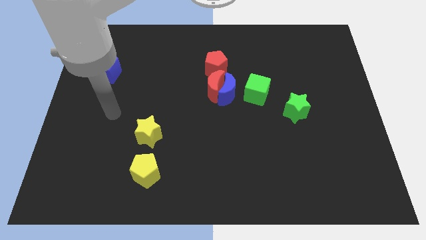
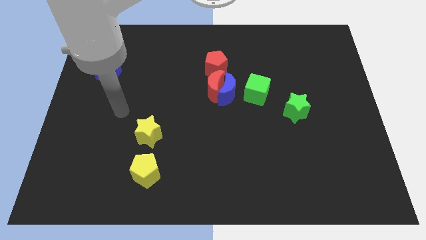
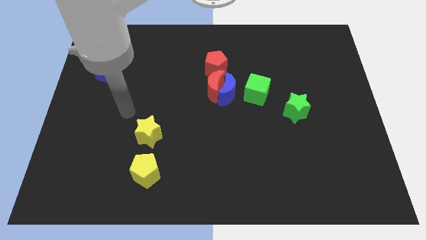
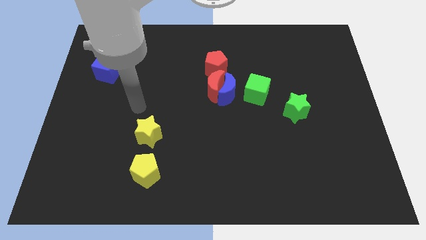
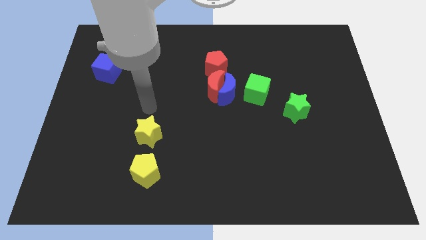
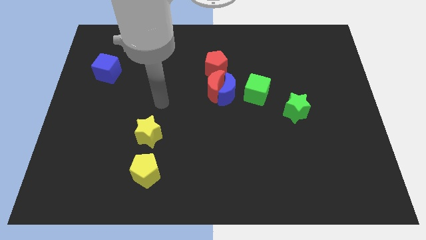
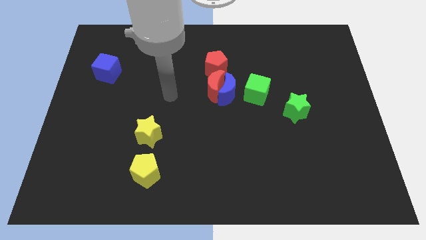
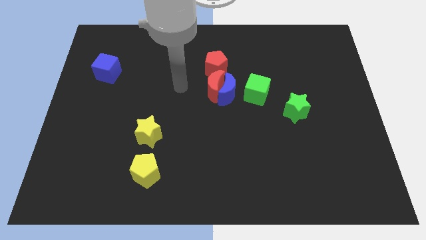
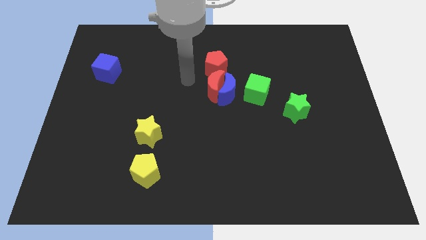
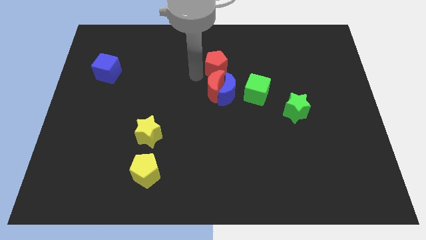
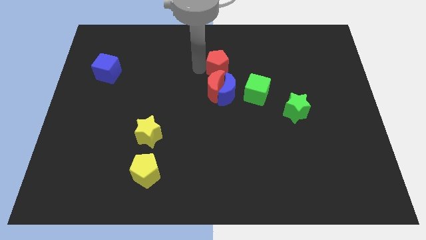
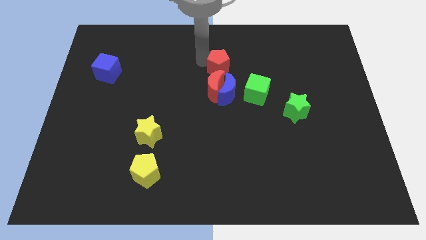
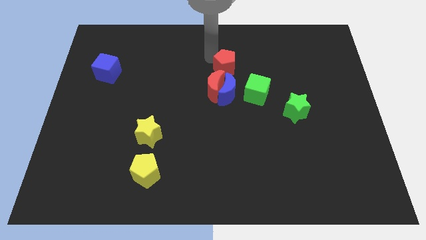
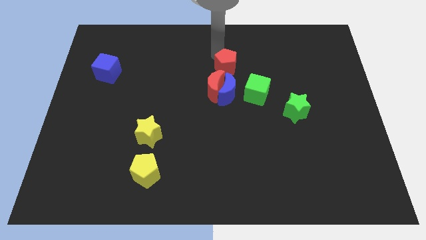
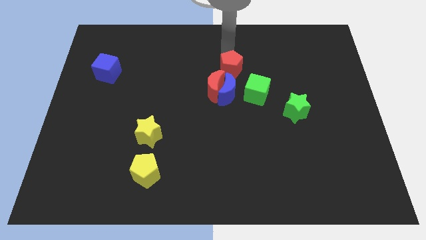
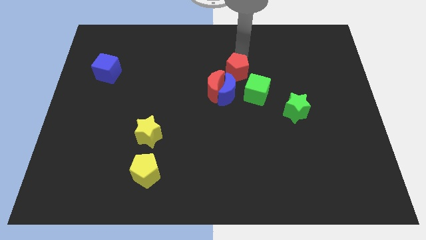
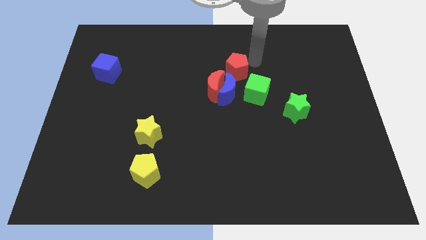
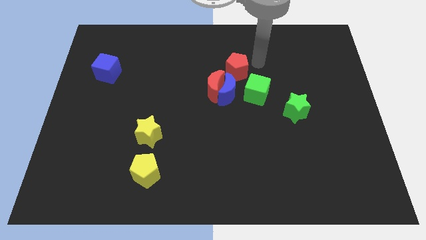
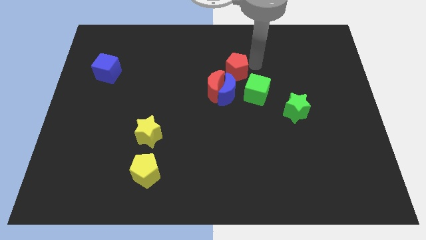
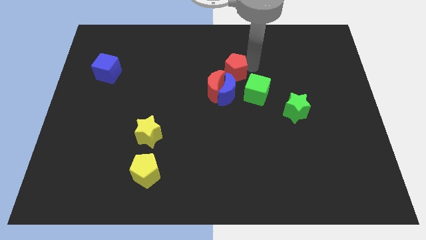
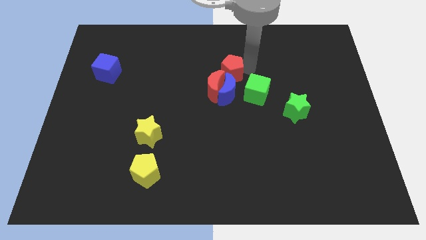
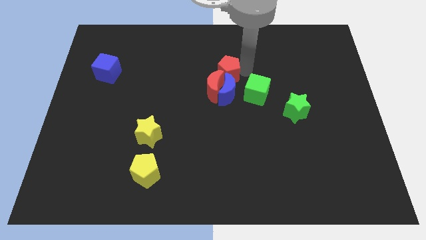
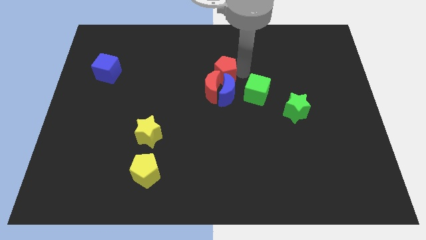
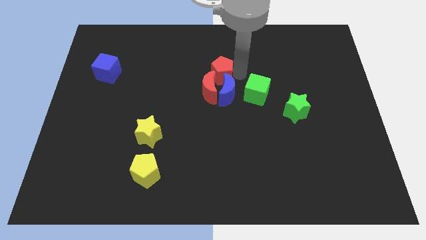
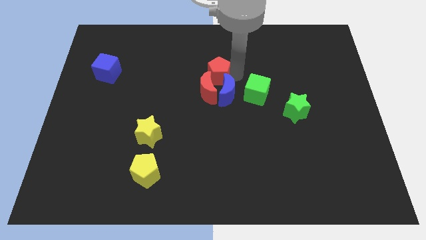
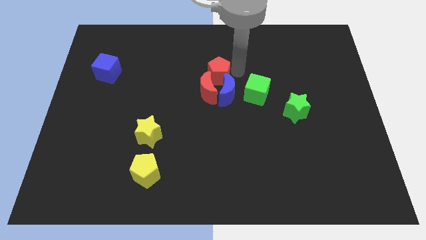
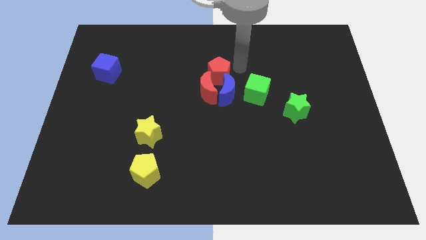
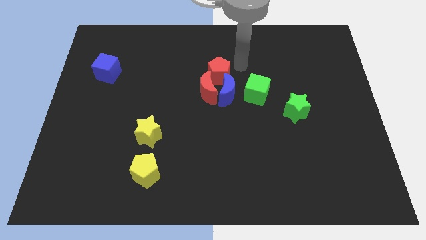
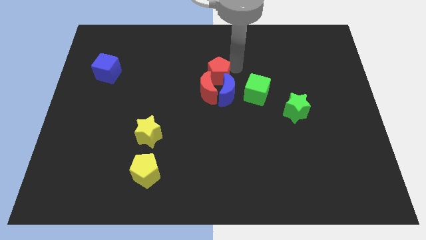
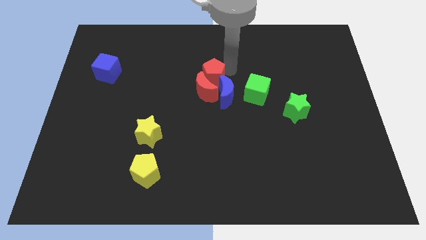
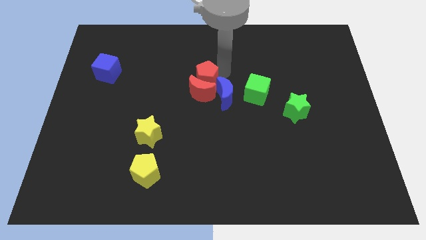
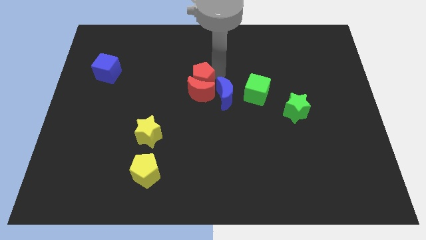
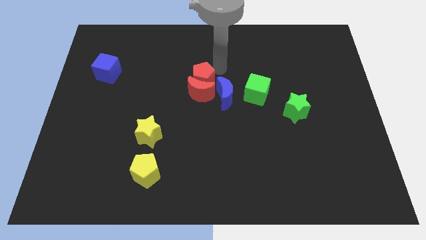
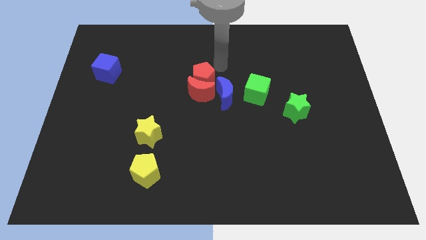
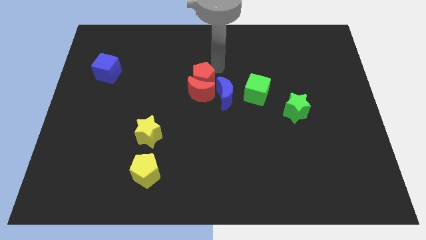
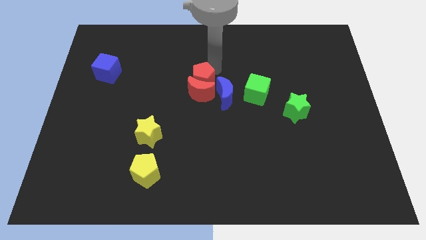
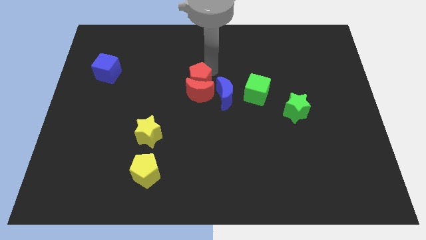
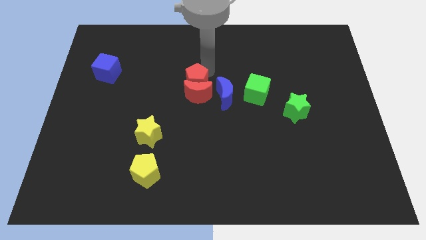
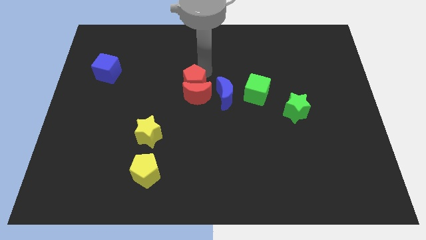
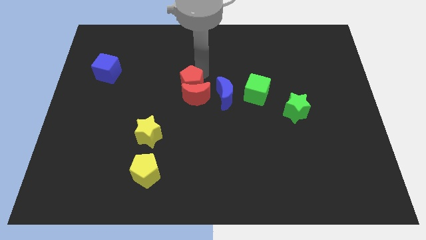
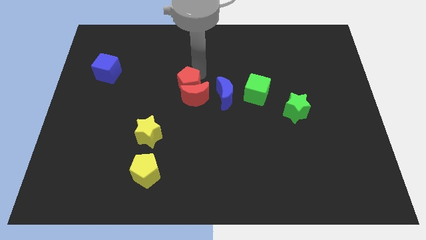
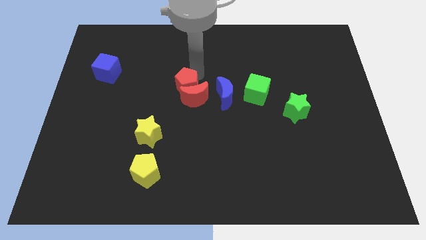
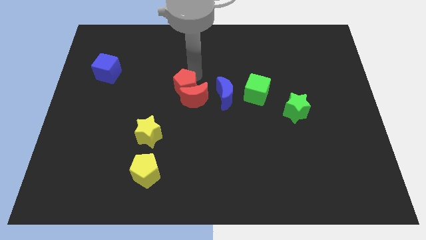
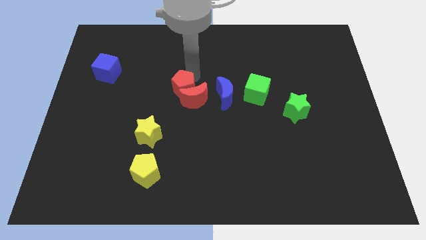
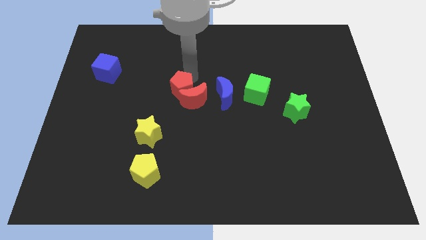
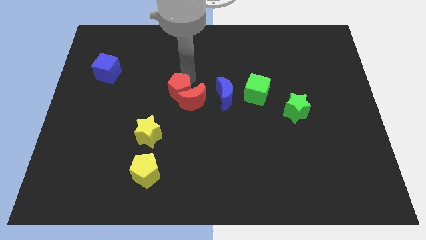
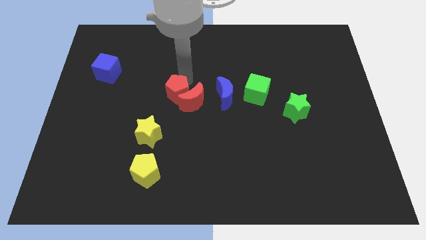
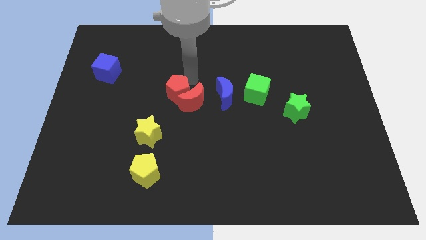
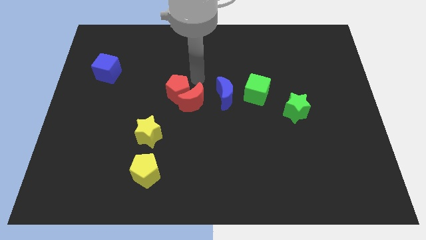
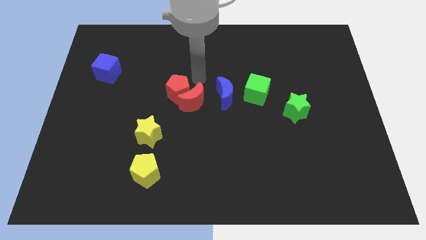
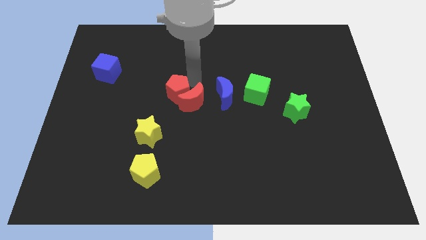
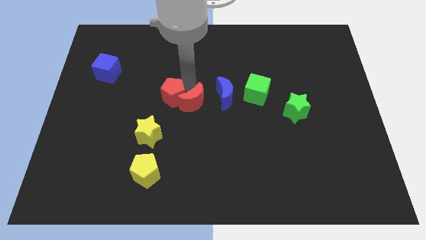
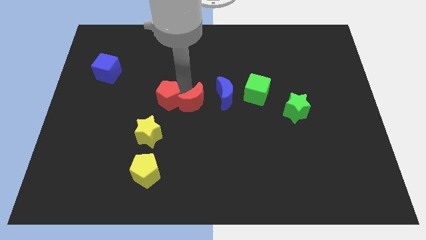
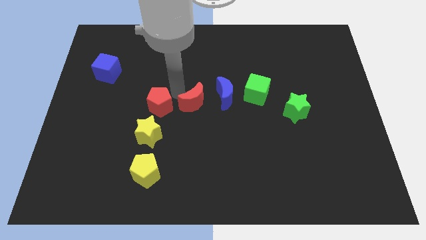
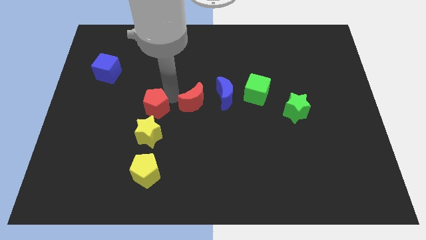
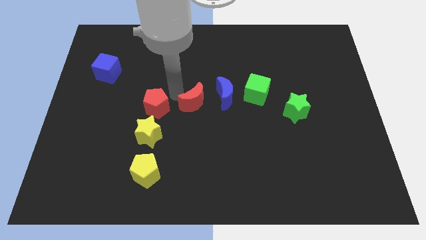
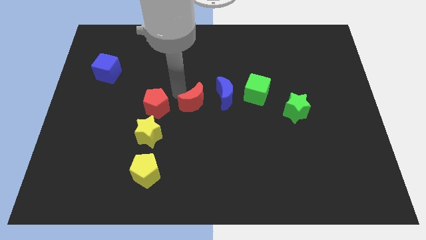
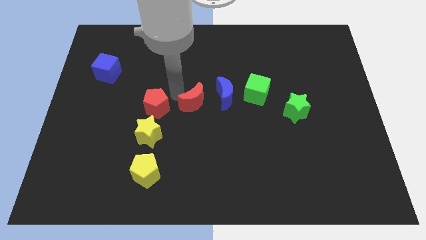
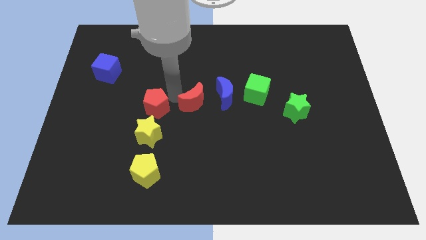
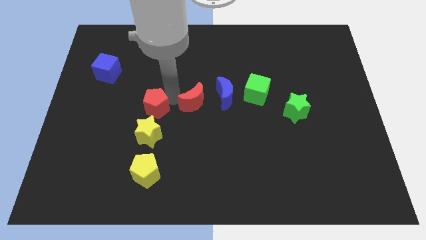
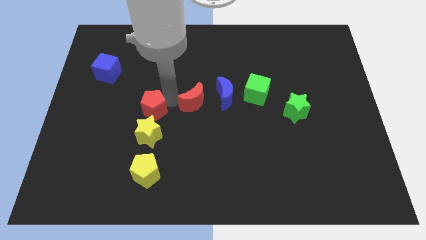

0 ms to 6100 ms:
slide the red pentagon diagonally downwards and left

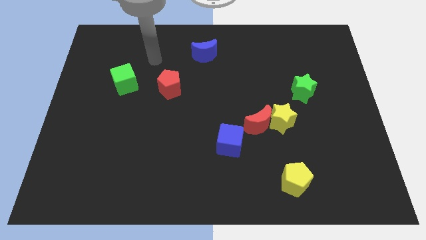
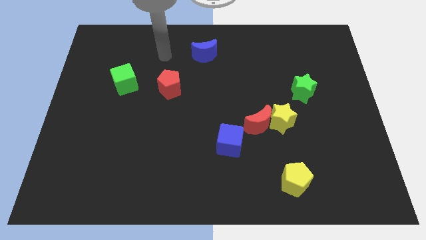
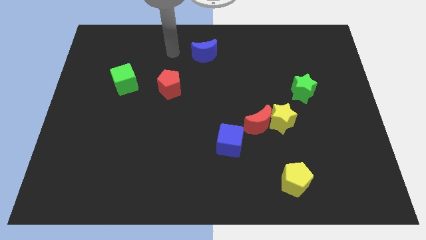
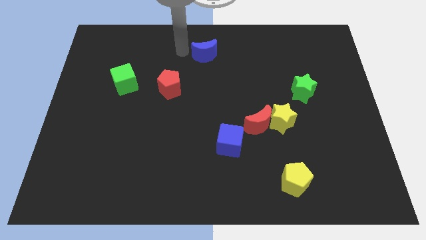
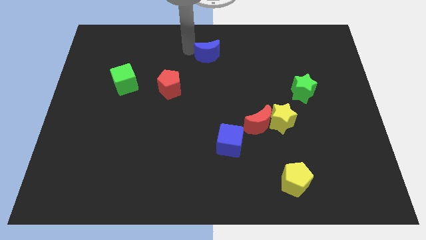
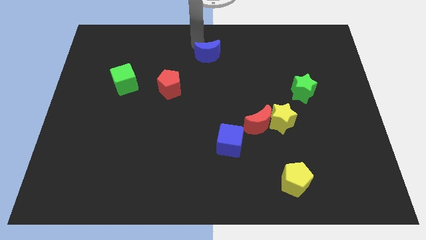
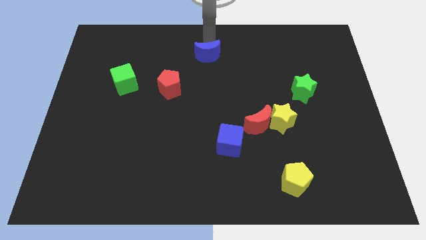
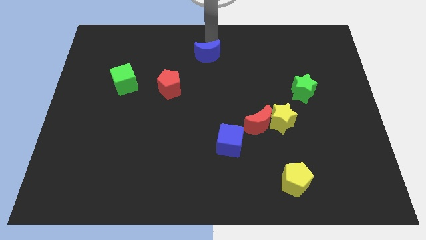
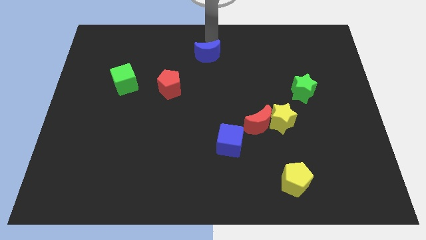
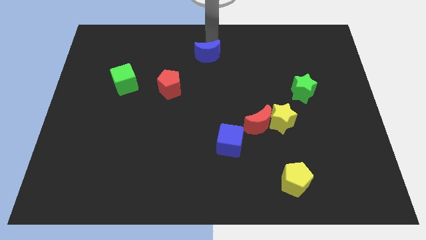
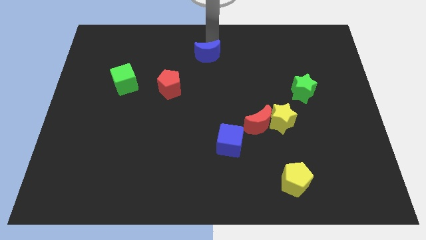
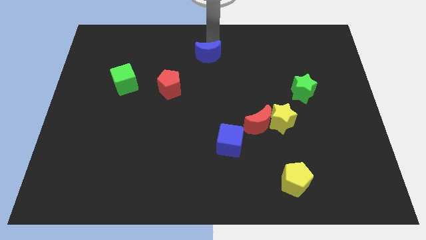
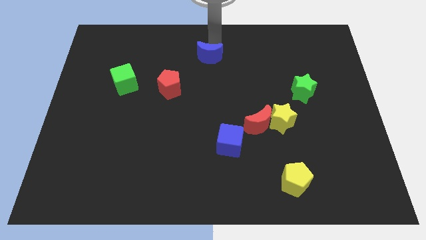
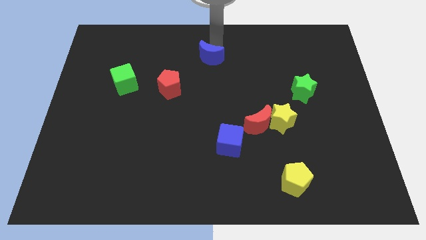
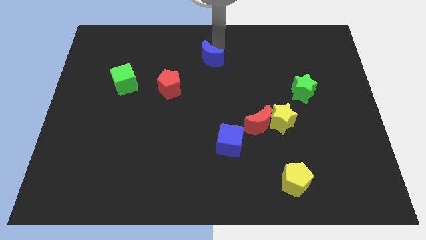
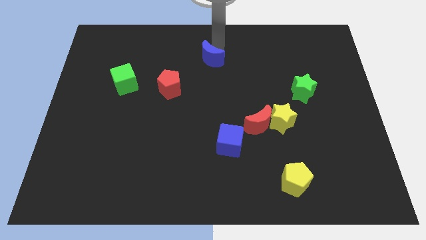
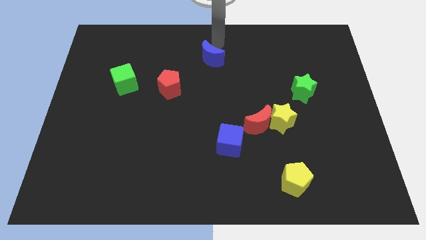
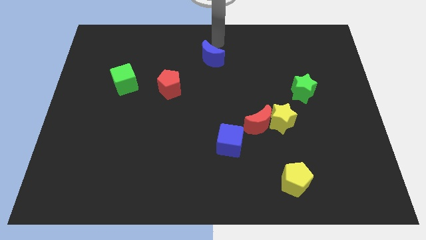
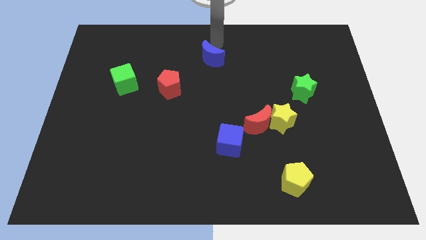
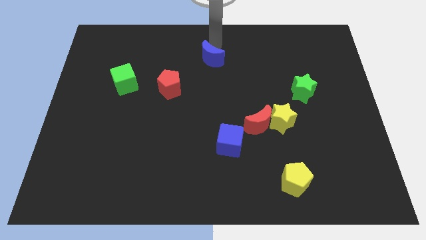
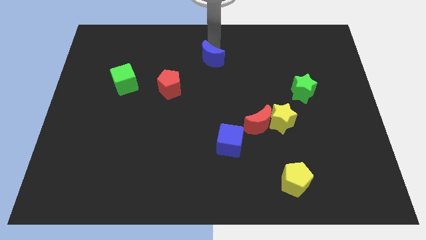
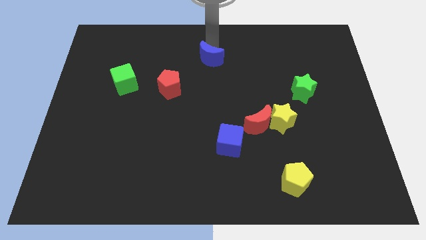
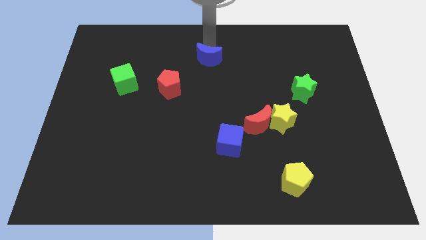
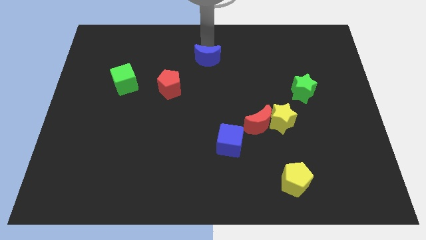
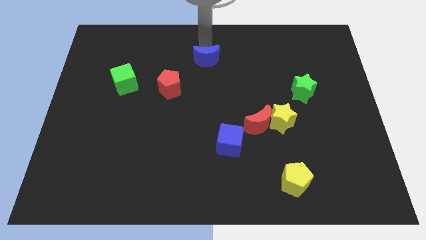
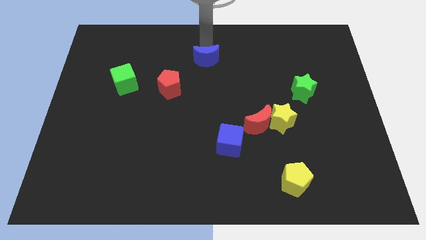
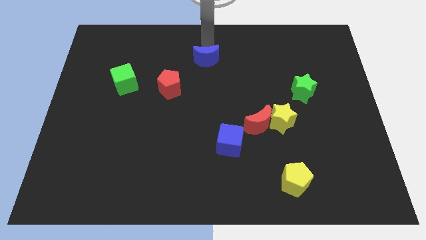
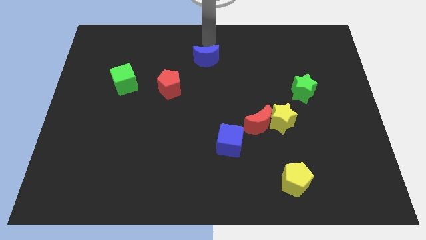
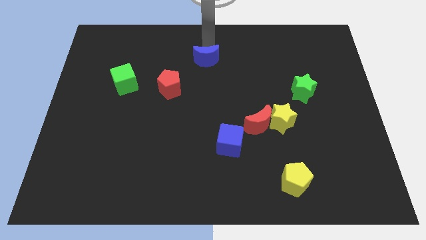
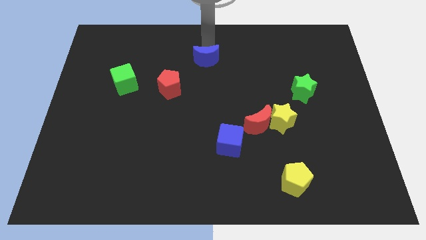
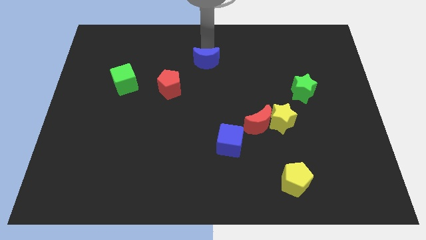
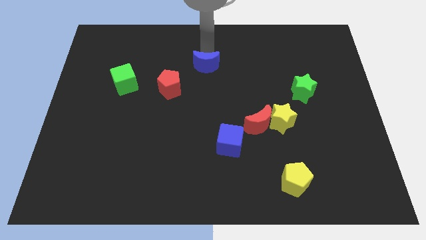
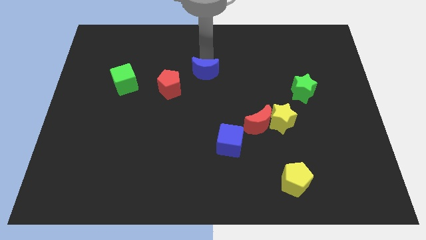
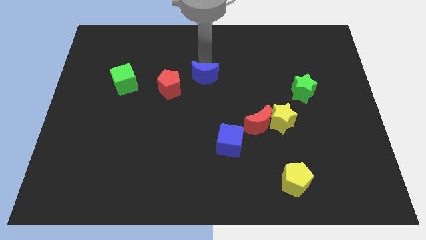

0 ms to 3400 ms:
push the blue moon slightly downwards
